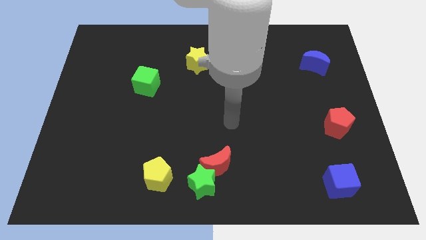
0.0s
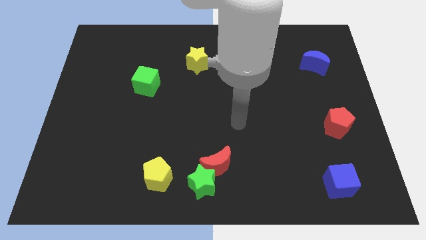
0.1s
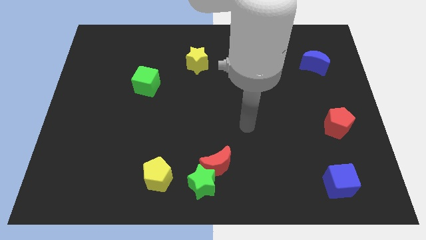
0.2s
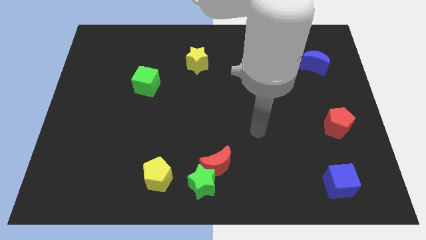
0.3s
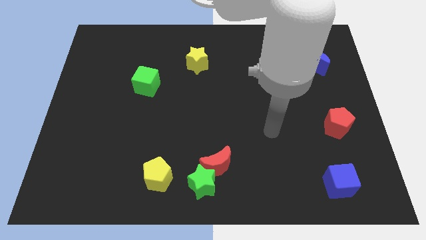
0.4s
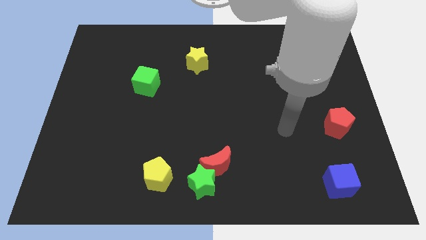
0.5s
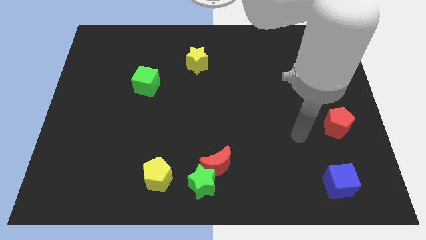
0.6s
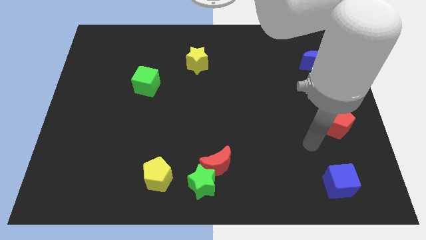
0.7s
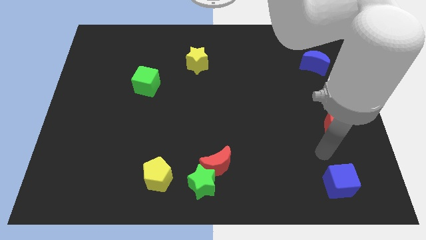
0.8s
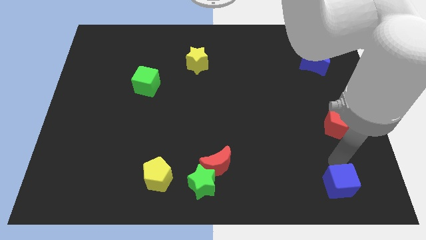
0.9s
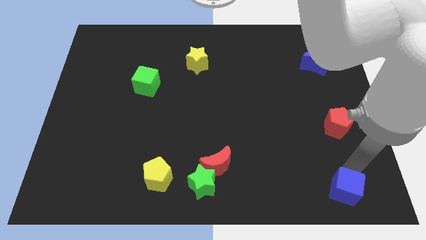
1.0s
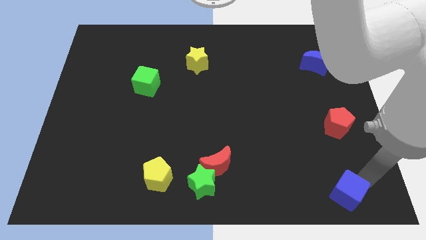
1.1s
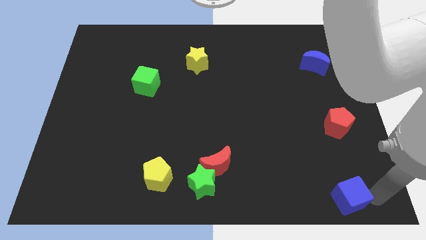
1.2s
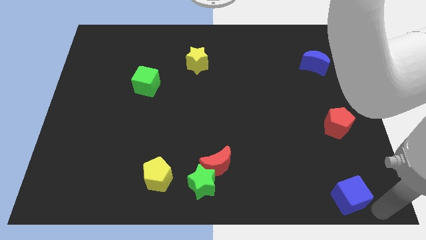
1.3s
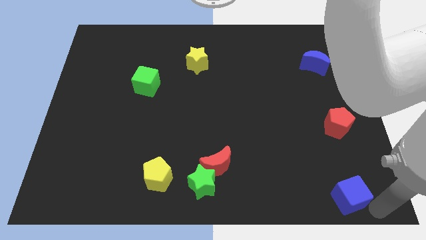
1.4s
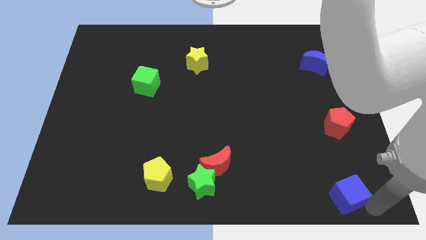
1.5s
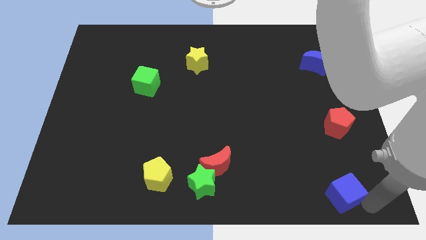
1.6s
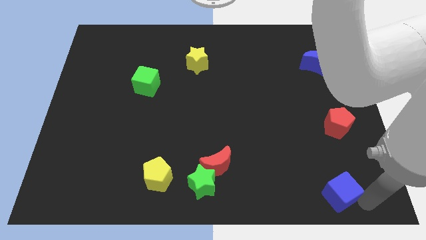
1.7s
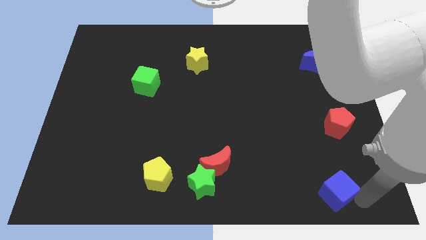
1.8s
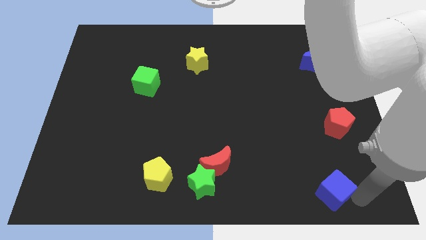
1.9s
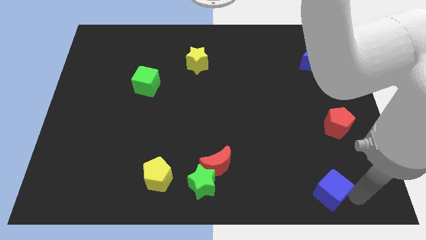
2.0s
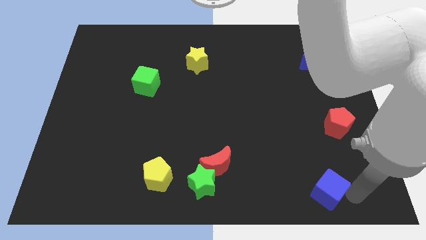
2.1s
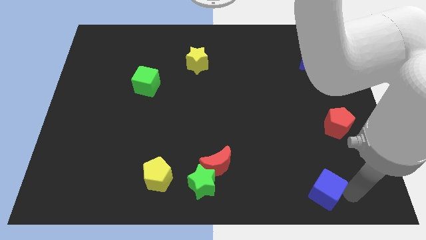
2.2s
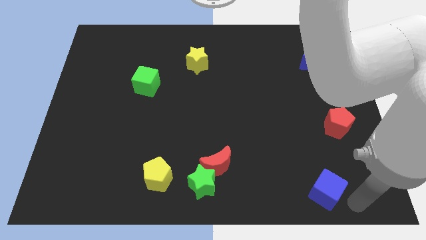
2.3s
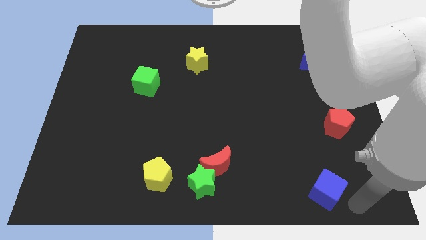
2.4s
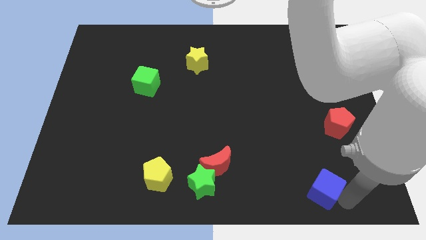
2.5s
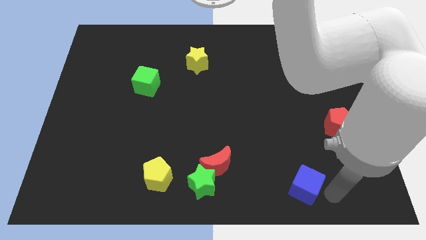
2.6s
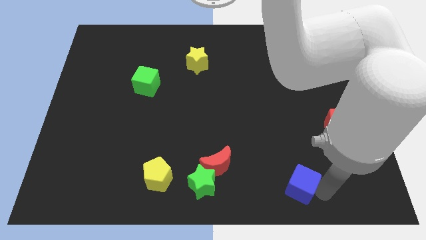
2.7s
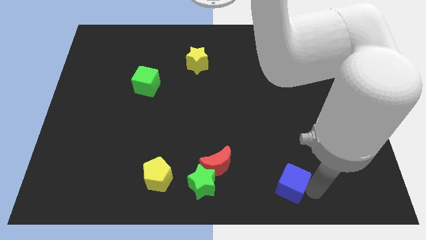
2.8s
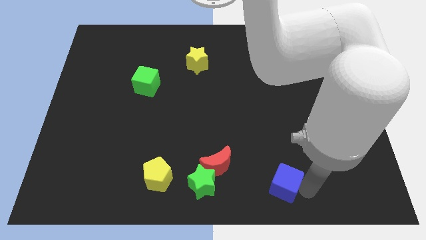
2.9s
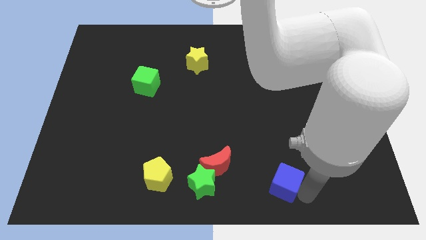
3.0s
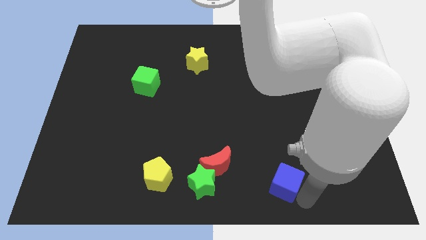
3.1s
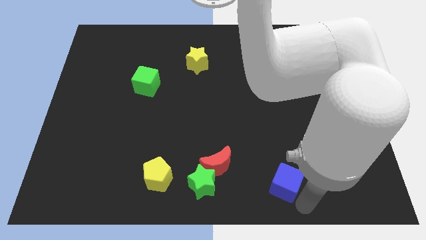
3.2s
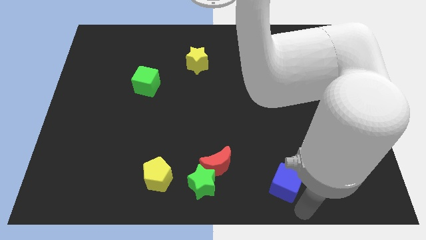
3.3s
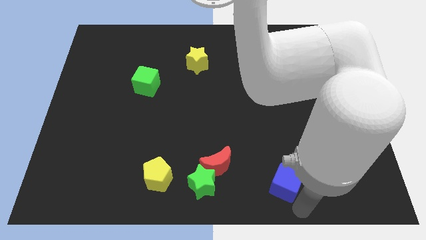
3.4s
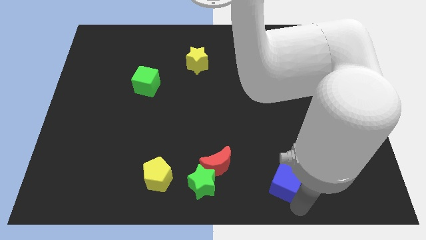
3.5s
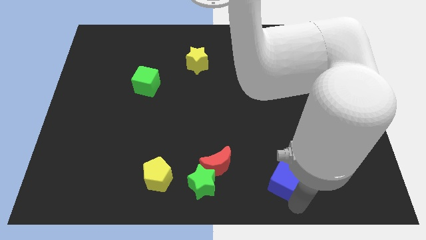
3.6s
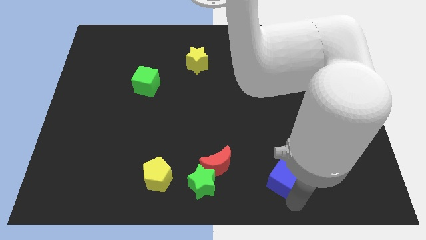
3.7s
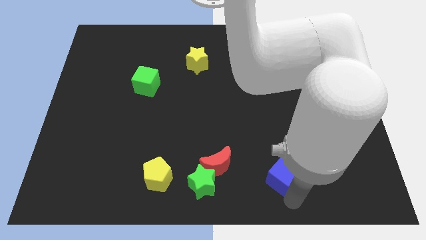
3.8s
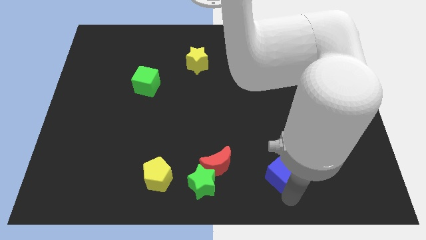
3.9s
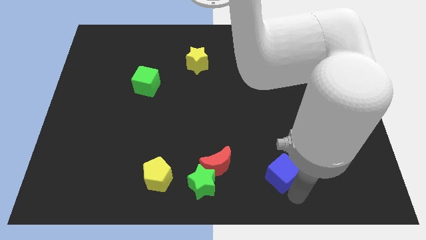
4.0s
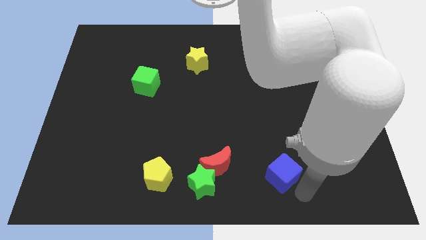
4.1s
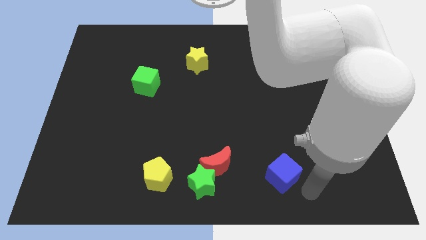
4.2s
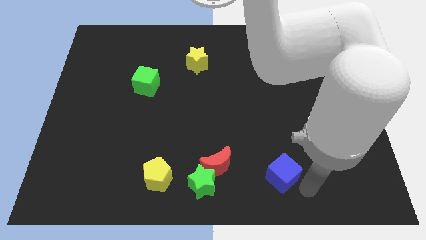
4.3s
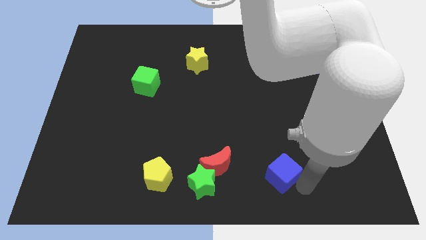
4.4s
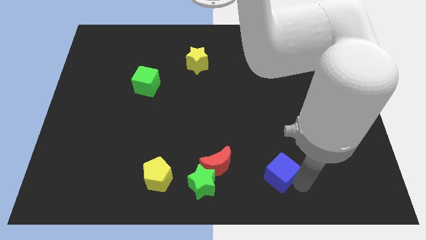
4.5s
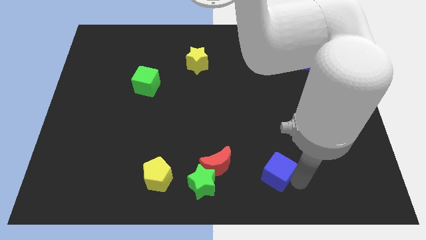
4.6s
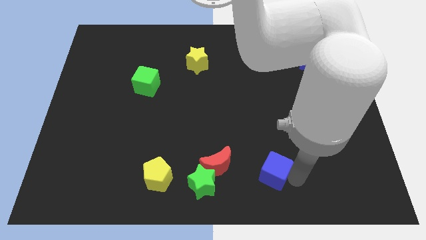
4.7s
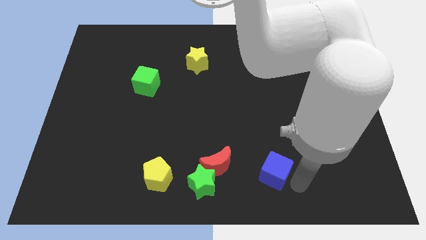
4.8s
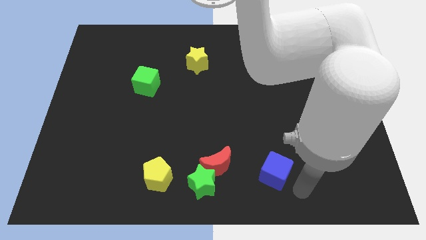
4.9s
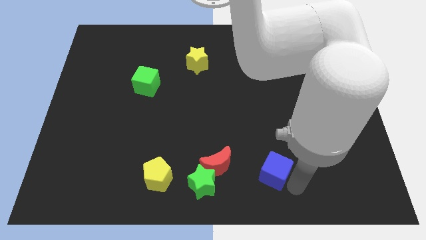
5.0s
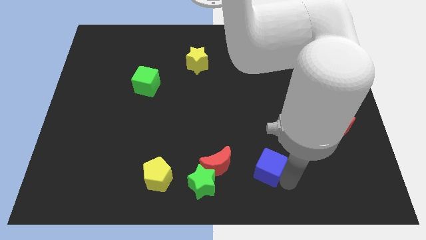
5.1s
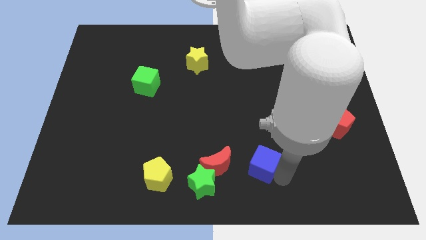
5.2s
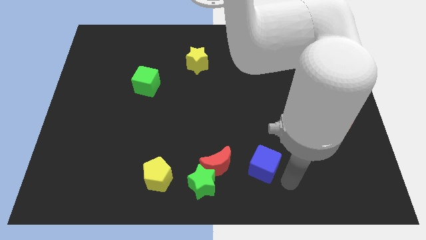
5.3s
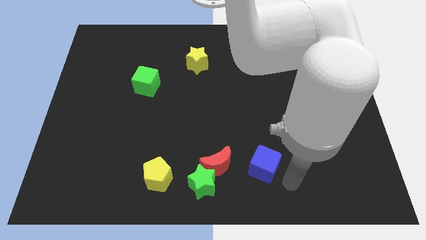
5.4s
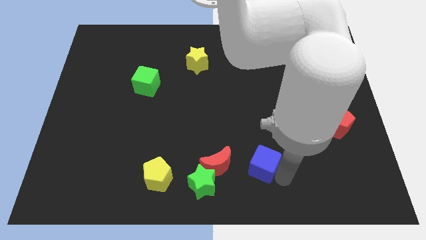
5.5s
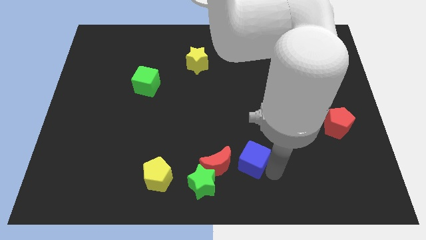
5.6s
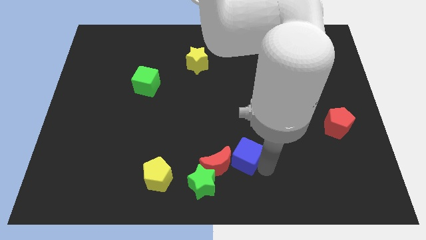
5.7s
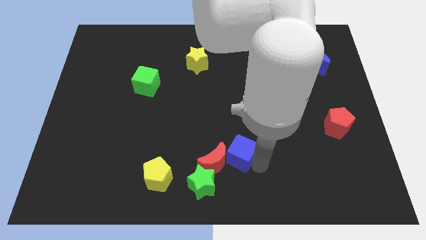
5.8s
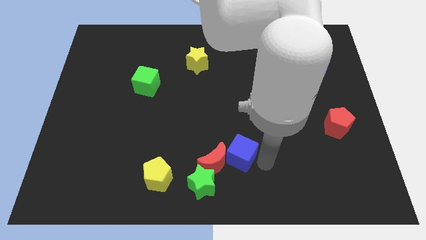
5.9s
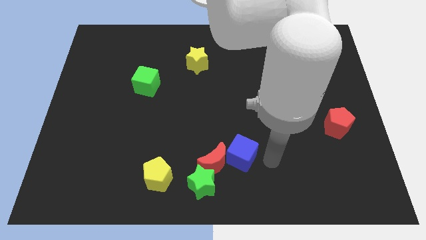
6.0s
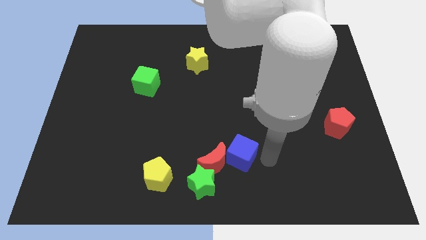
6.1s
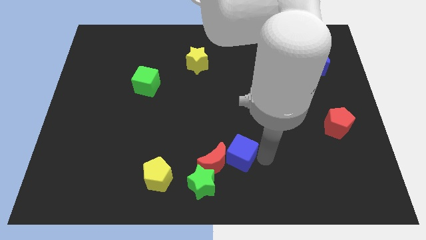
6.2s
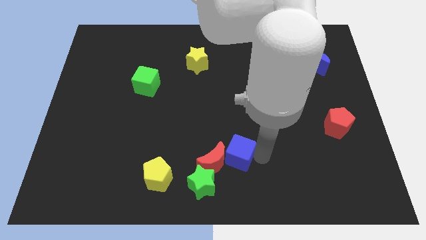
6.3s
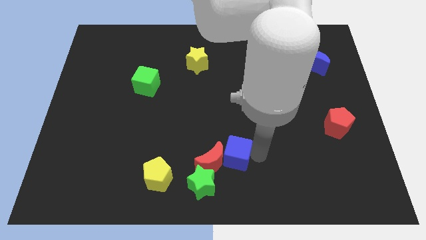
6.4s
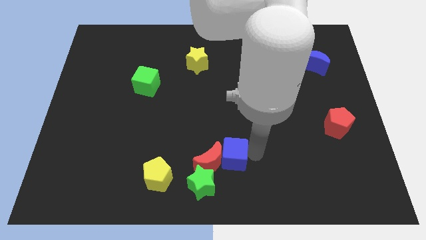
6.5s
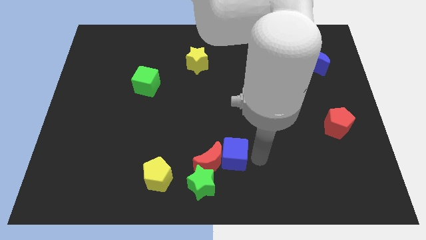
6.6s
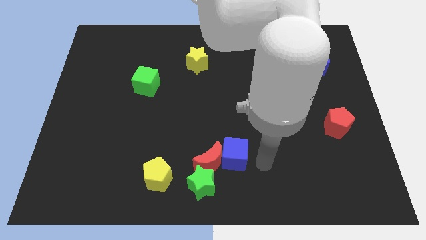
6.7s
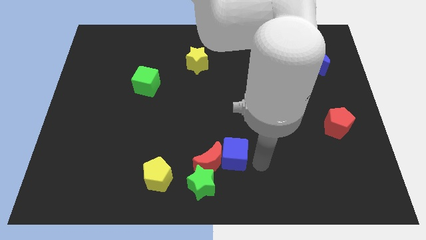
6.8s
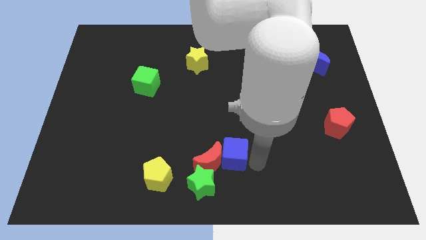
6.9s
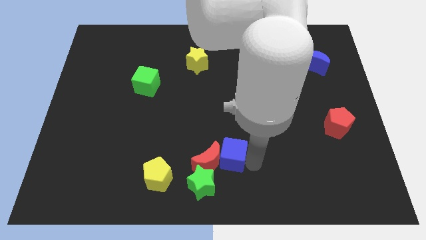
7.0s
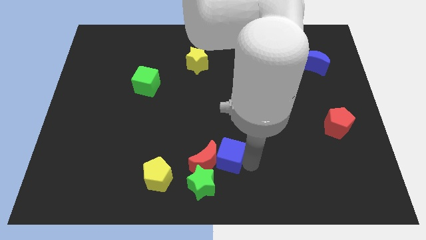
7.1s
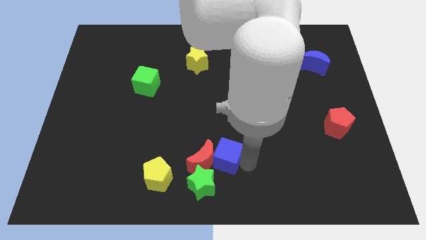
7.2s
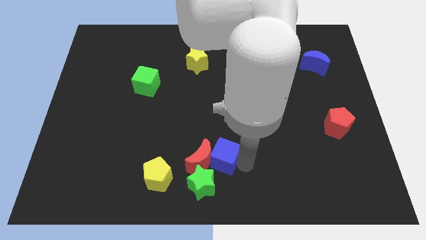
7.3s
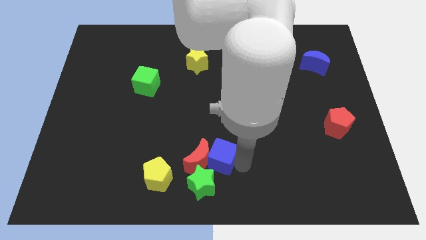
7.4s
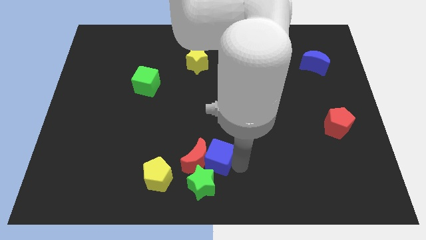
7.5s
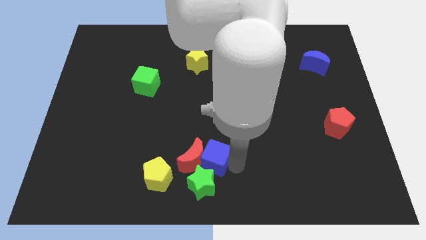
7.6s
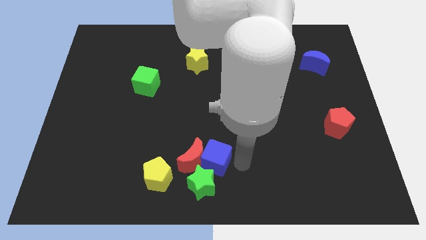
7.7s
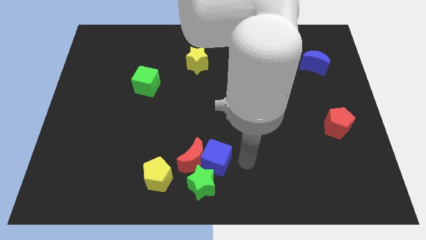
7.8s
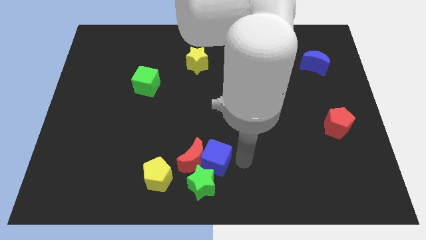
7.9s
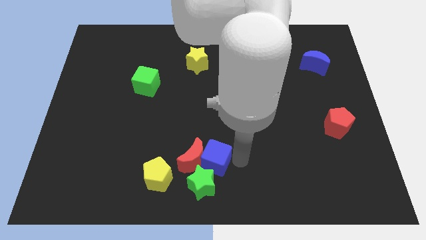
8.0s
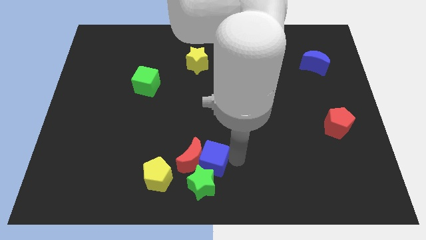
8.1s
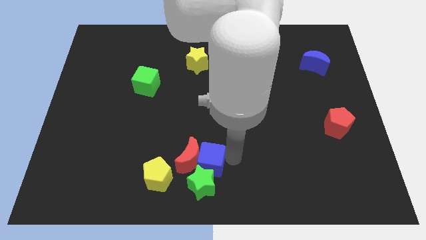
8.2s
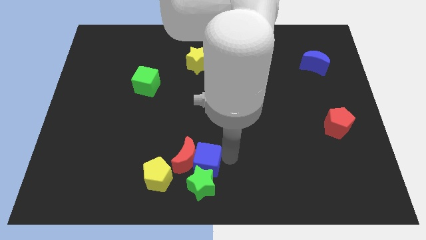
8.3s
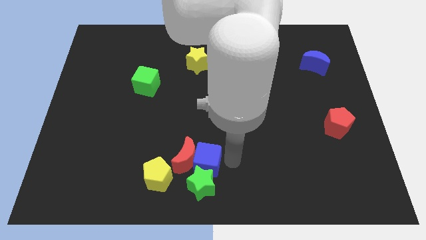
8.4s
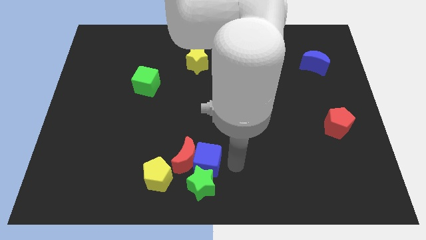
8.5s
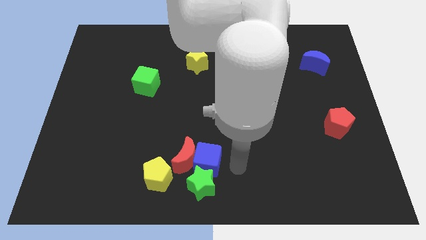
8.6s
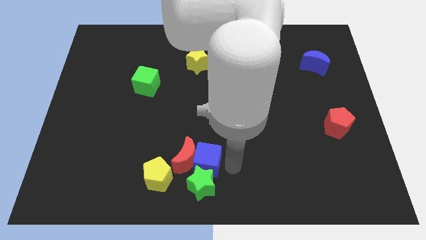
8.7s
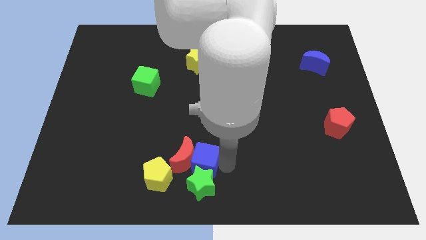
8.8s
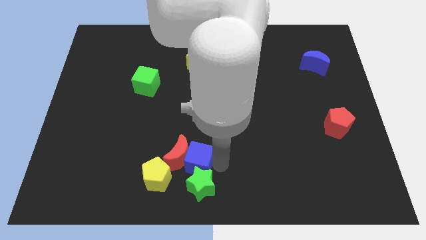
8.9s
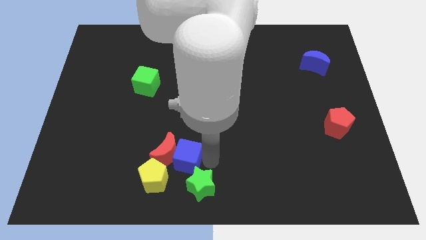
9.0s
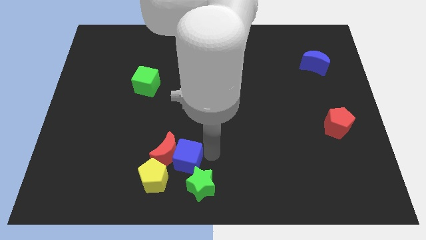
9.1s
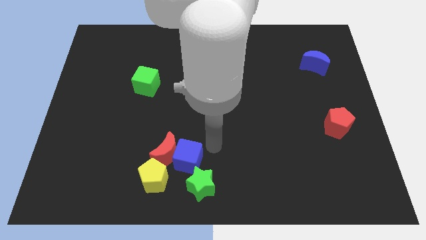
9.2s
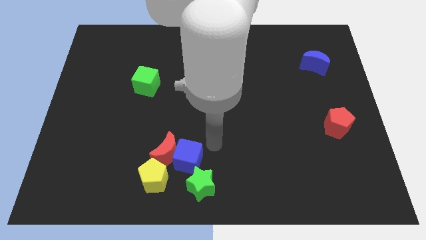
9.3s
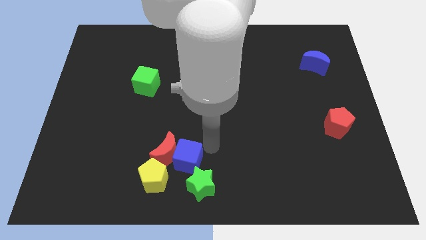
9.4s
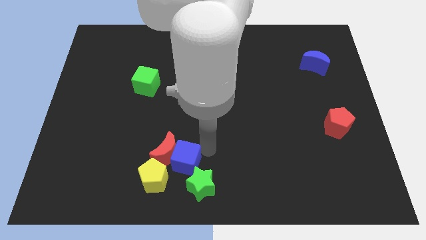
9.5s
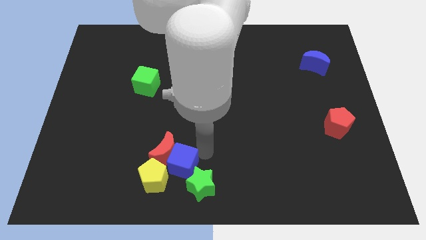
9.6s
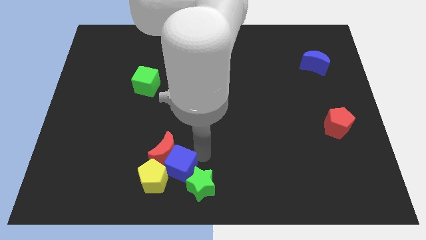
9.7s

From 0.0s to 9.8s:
move the blue cube close to the yellow pentagon
